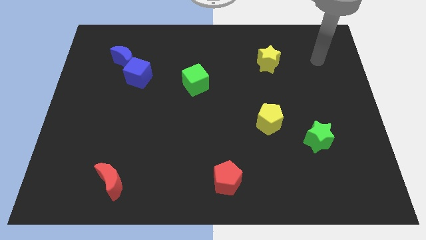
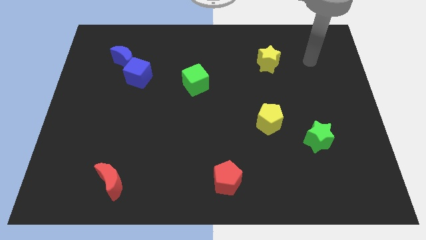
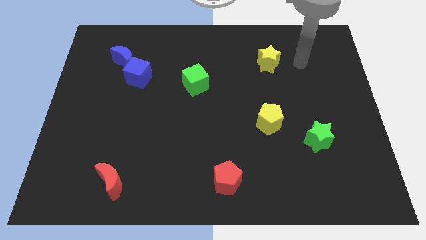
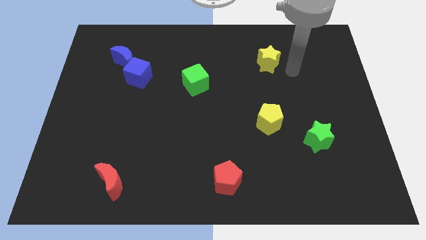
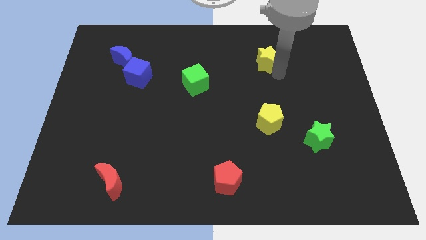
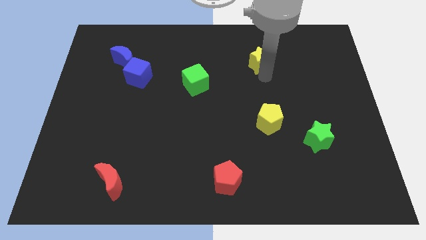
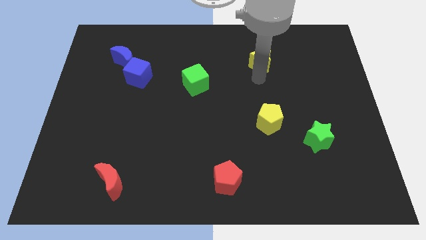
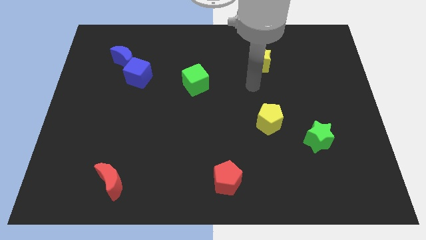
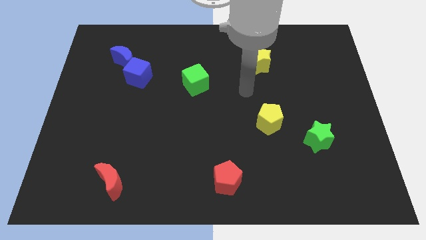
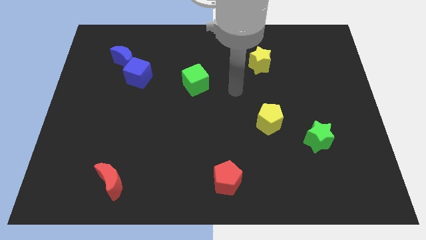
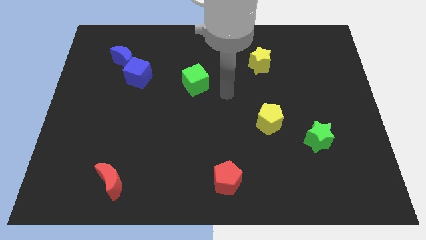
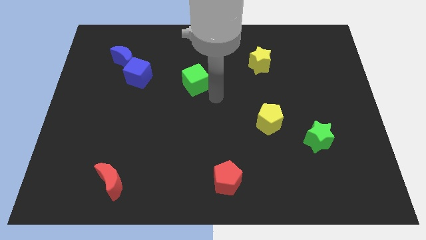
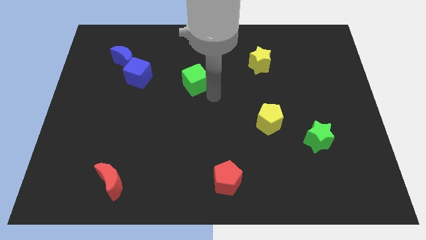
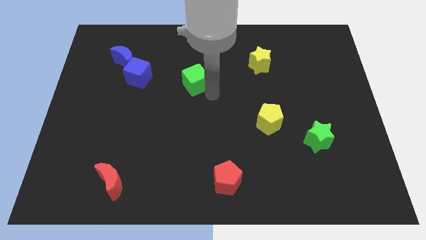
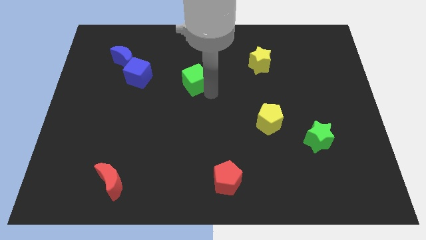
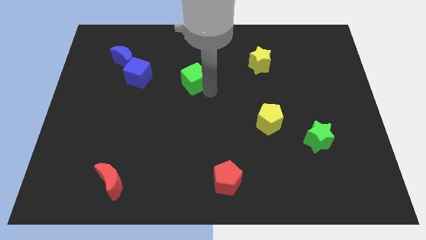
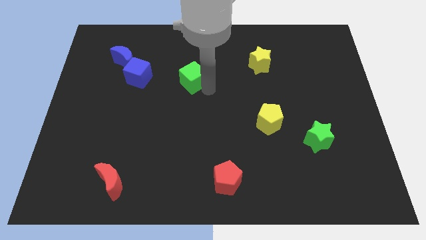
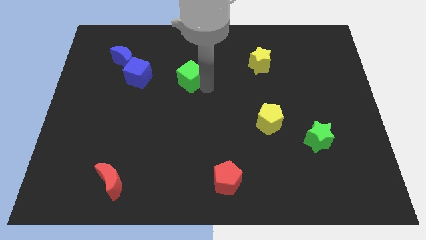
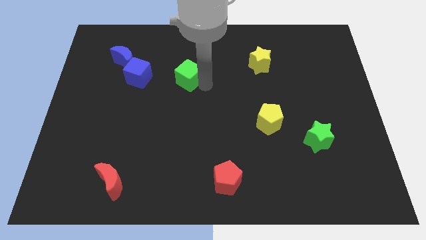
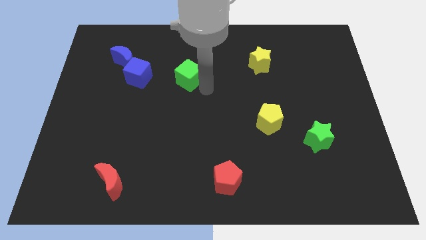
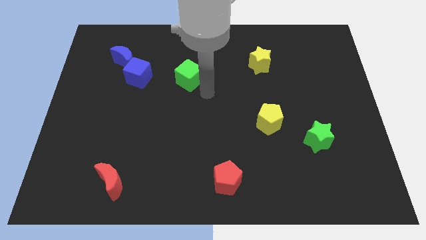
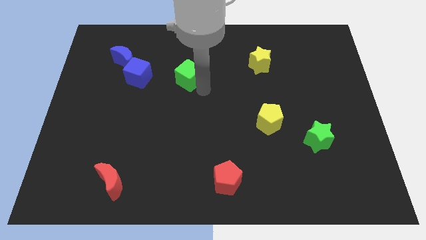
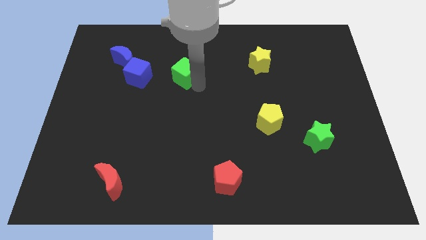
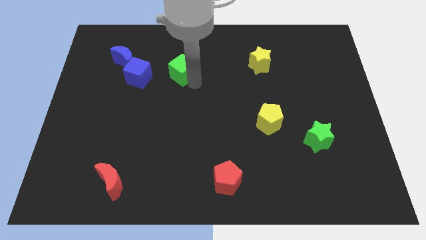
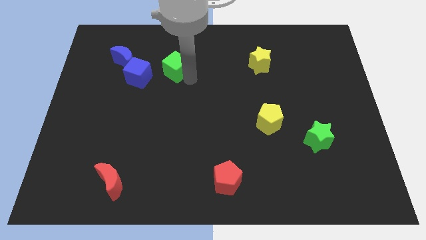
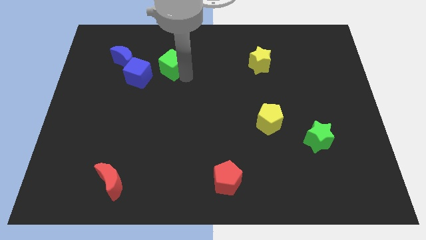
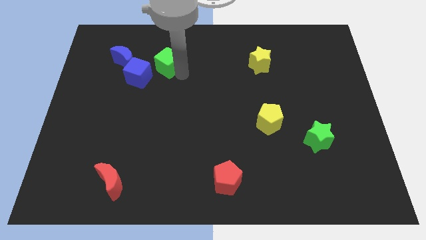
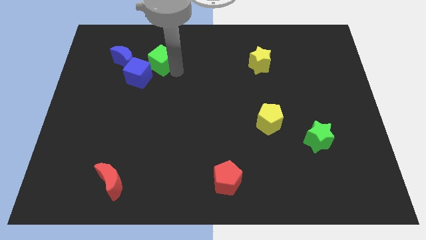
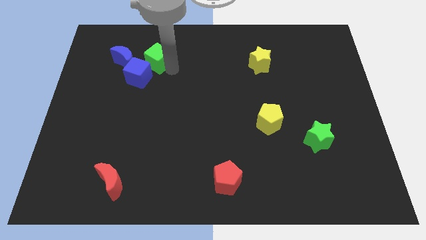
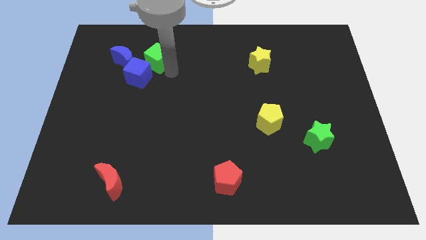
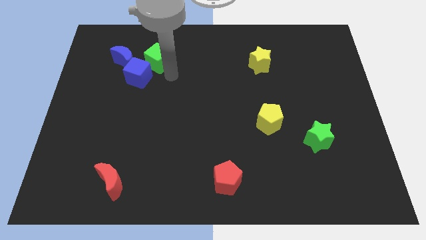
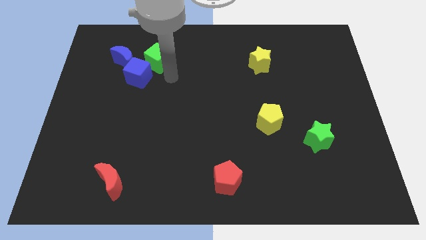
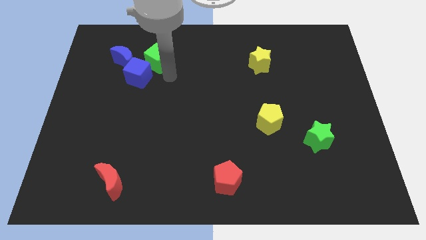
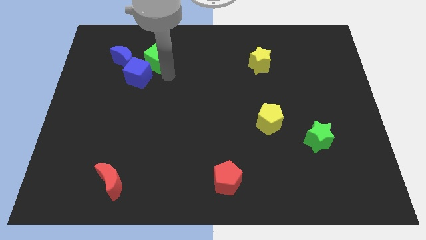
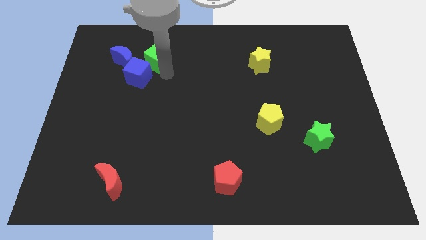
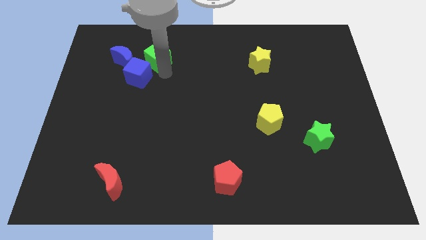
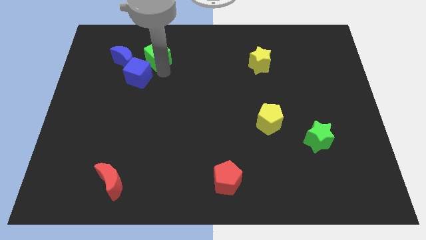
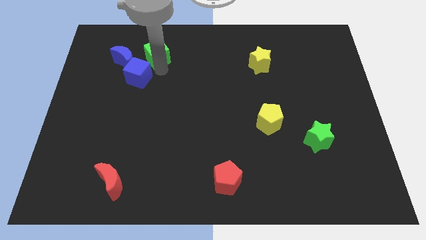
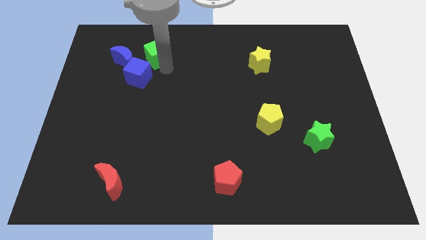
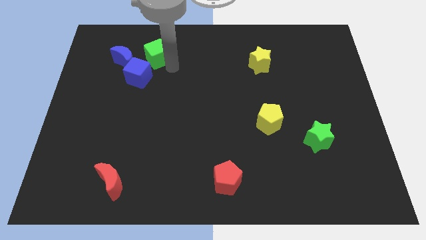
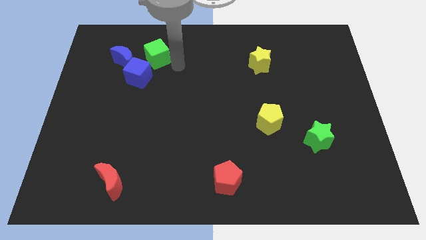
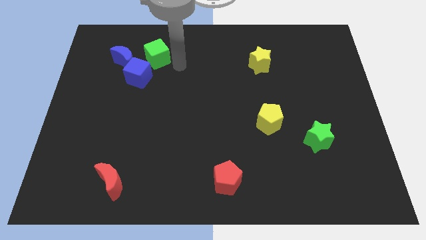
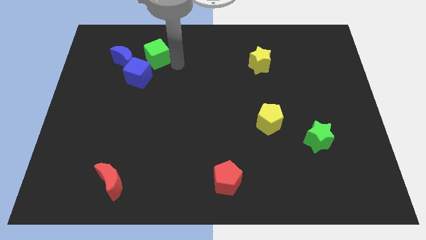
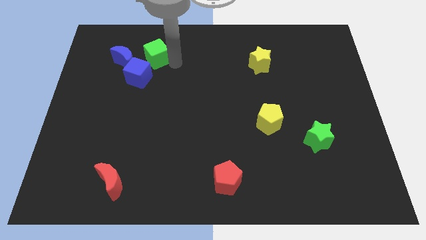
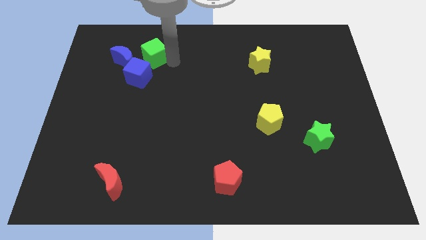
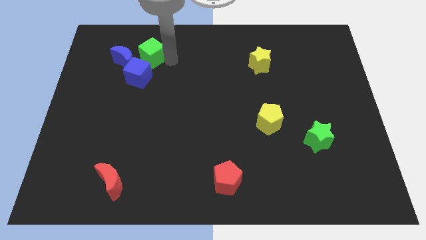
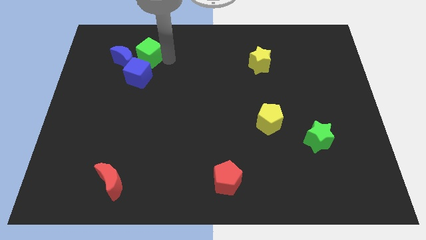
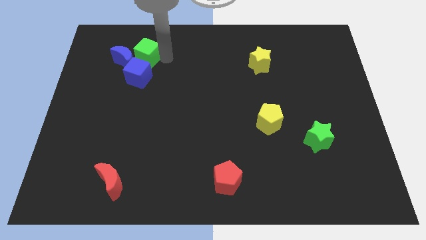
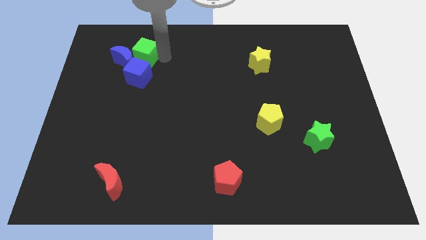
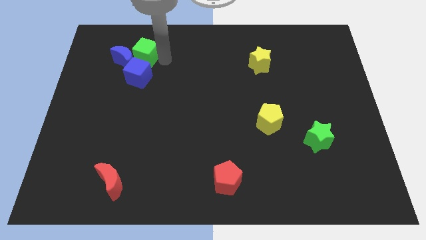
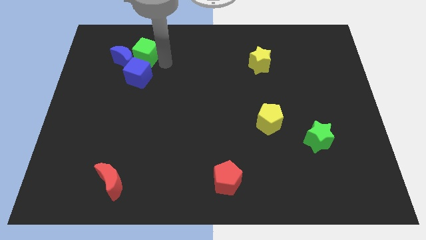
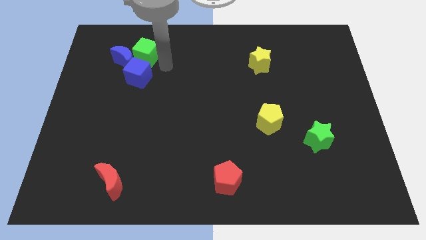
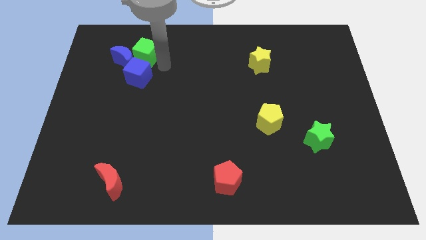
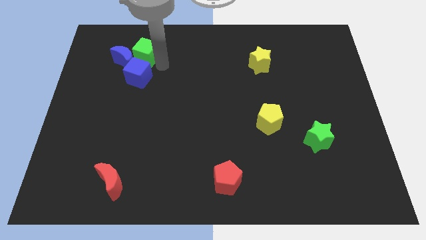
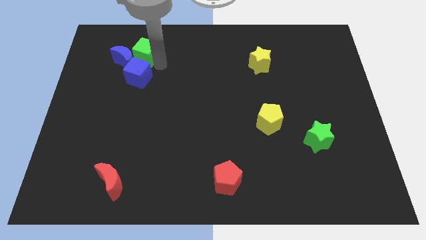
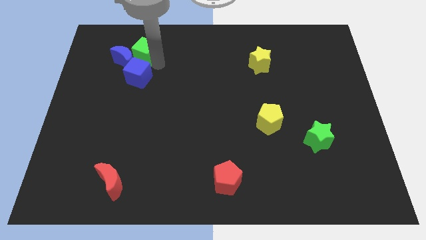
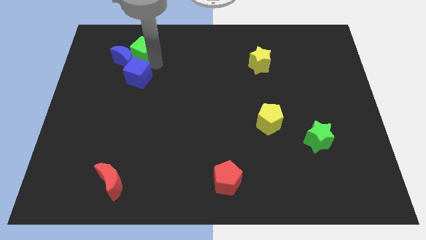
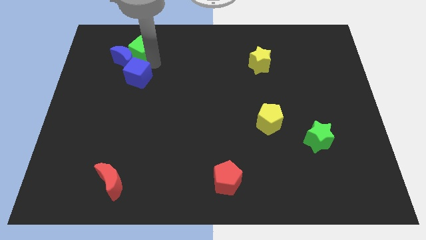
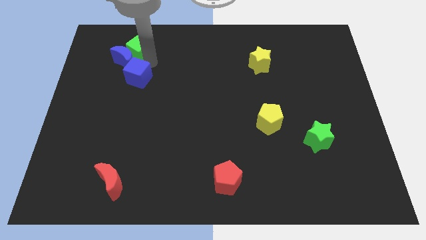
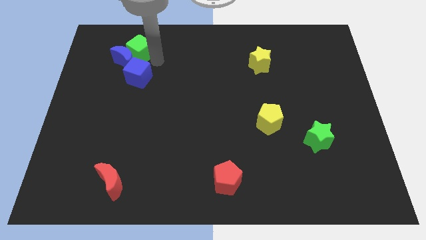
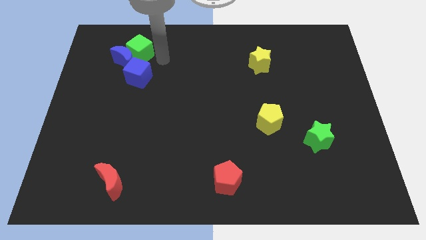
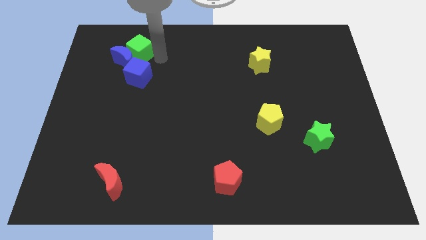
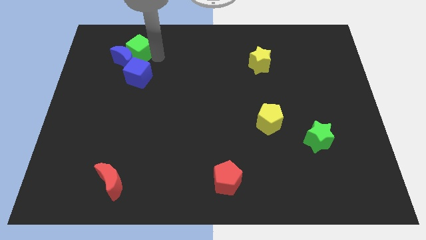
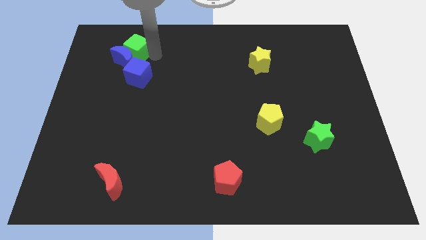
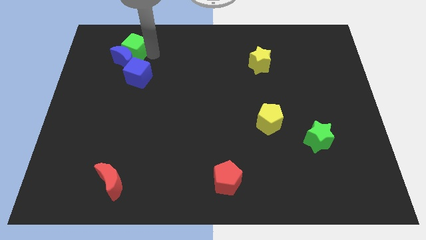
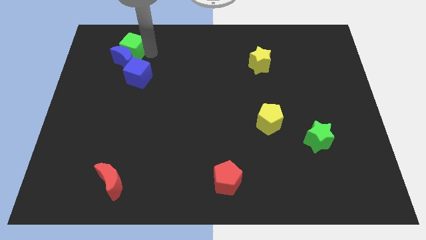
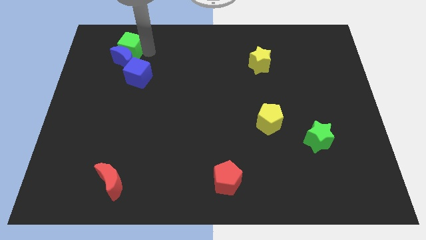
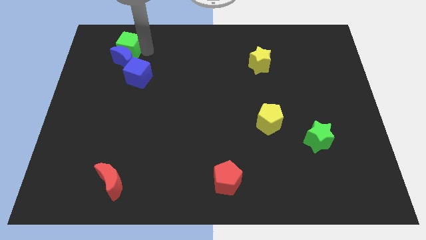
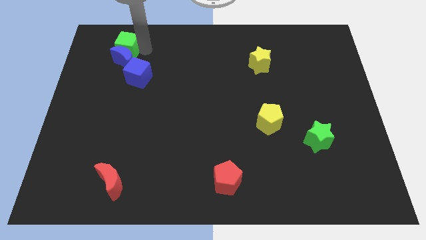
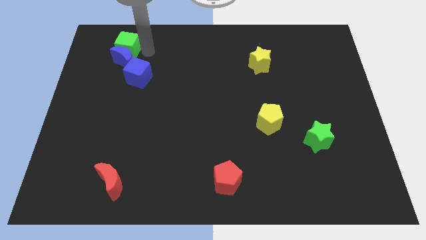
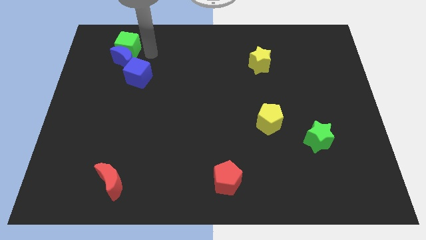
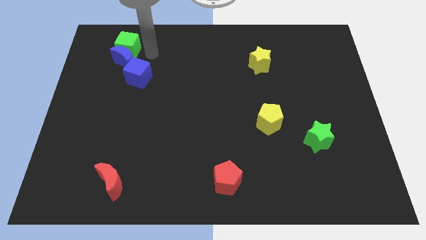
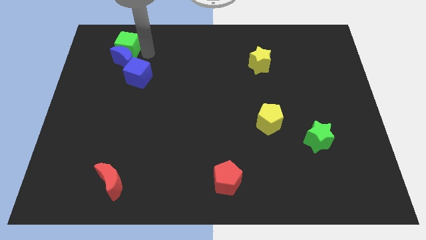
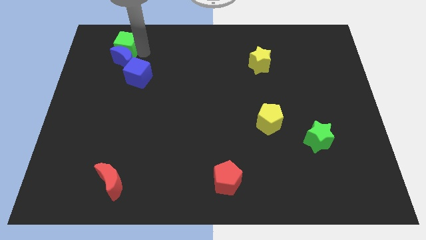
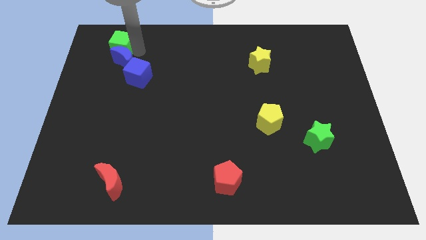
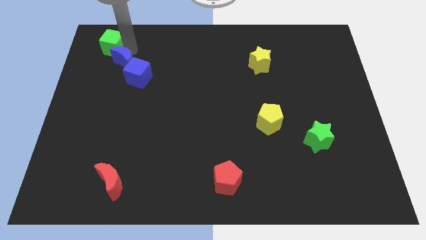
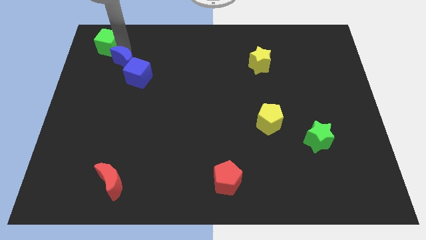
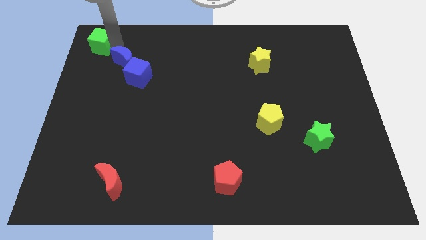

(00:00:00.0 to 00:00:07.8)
move the green cube to the top left of the board
